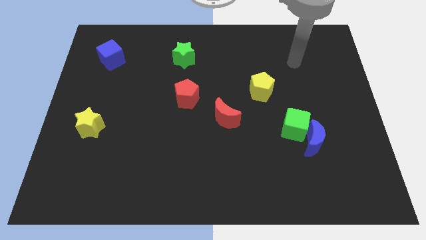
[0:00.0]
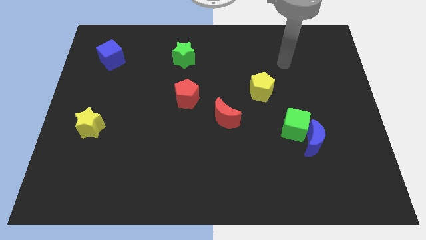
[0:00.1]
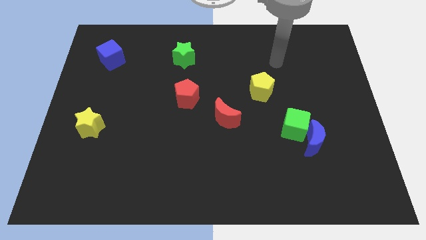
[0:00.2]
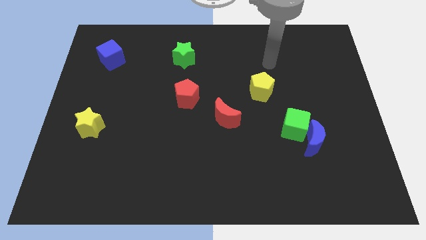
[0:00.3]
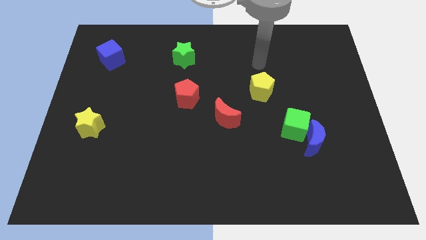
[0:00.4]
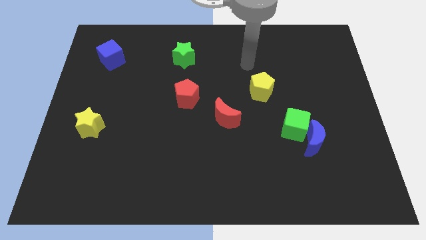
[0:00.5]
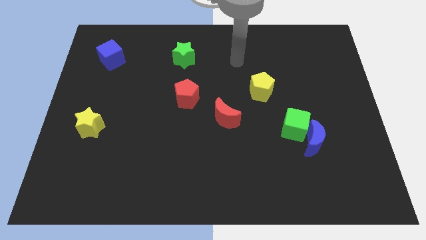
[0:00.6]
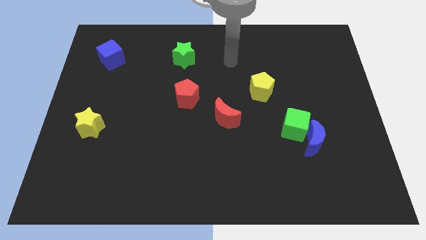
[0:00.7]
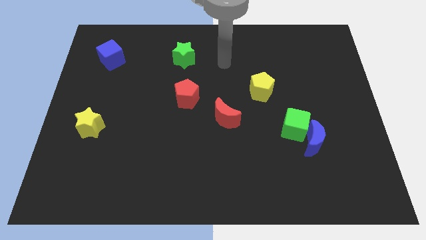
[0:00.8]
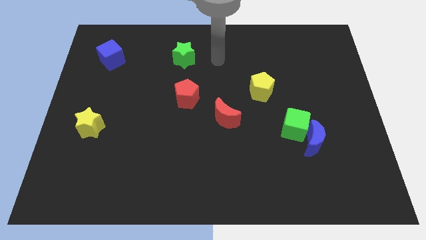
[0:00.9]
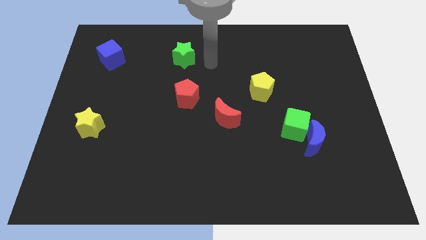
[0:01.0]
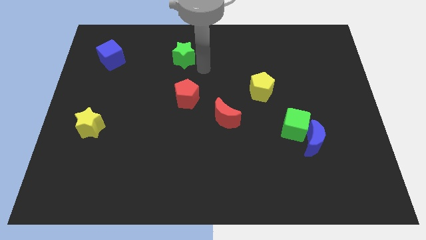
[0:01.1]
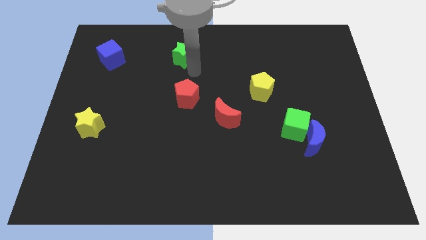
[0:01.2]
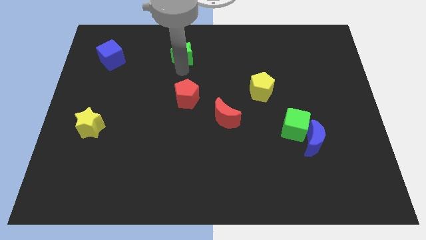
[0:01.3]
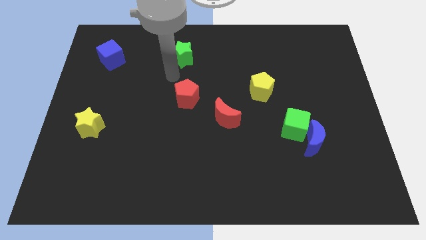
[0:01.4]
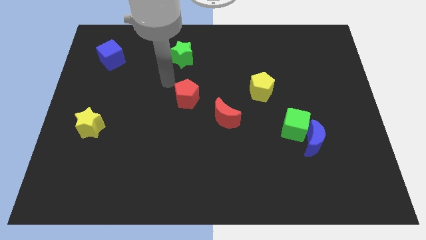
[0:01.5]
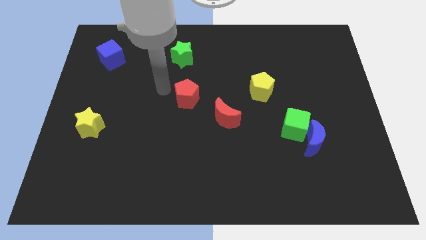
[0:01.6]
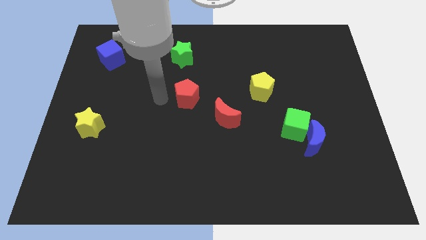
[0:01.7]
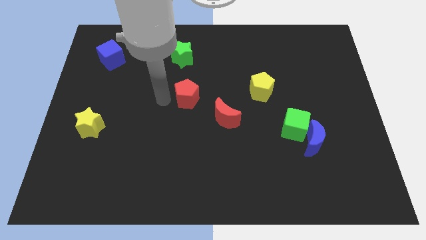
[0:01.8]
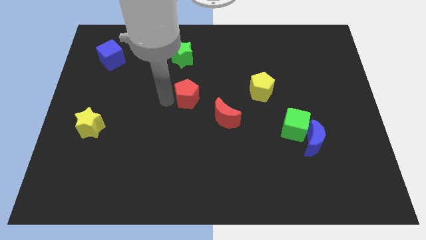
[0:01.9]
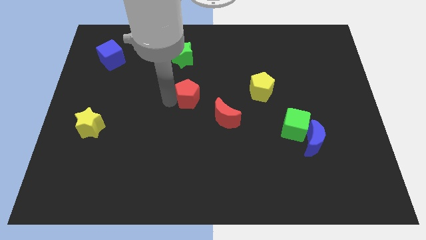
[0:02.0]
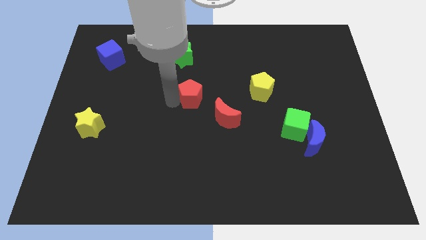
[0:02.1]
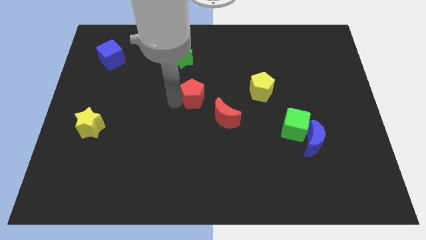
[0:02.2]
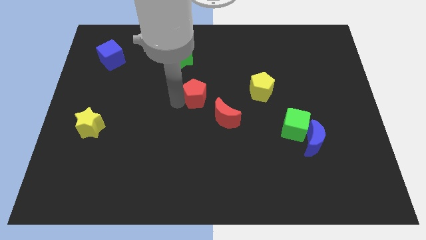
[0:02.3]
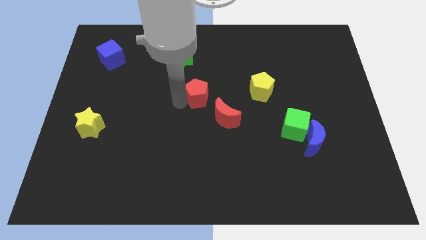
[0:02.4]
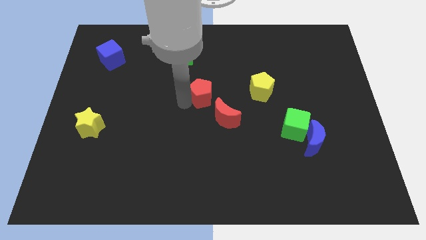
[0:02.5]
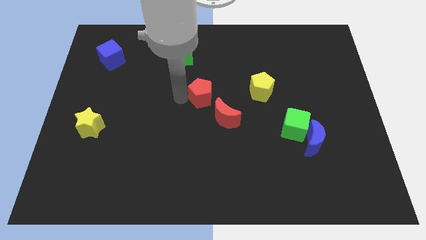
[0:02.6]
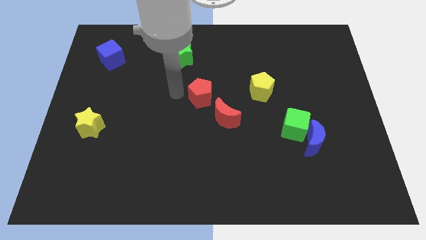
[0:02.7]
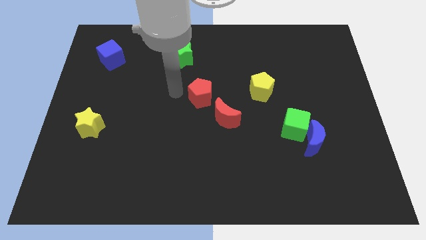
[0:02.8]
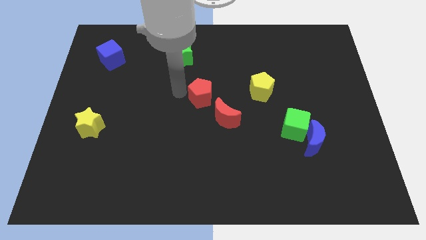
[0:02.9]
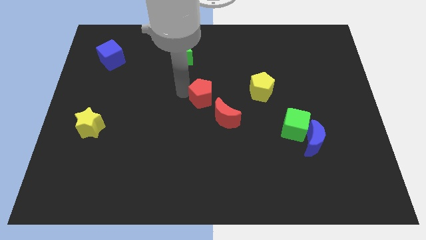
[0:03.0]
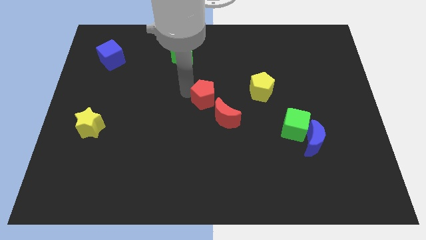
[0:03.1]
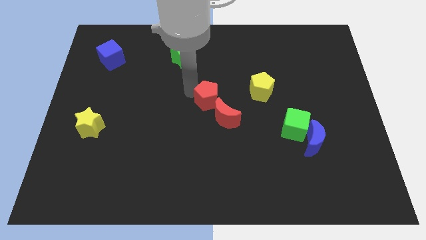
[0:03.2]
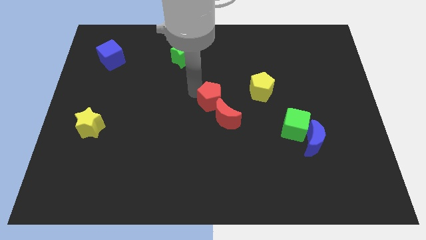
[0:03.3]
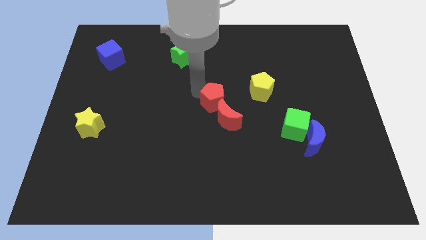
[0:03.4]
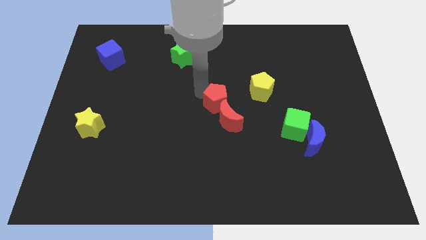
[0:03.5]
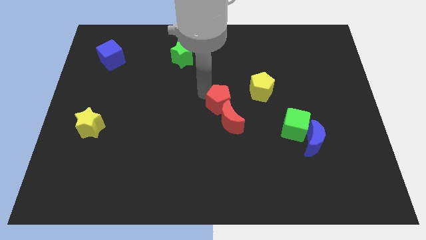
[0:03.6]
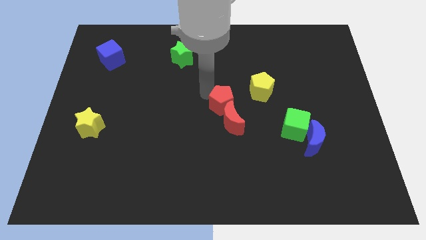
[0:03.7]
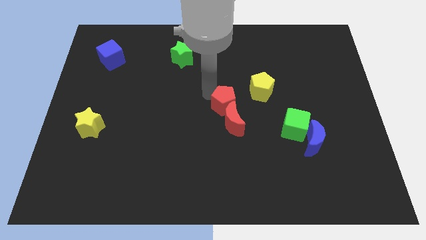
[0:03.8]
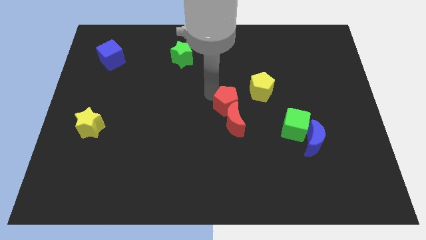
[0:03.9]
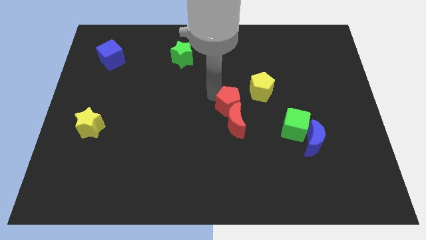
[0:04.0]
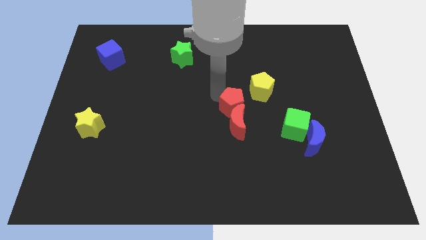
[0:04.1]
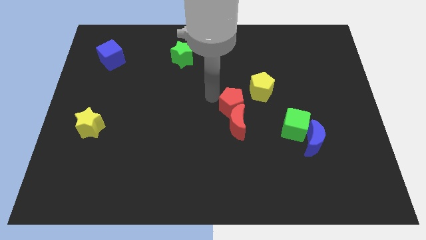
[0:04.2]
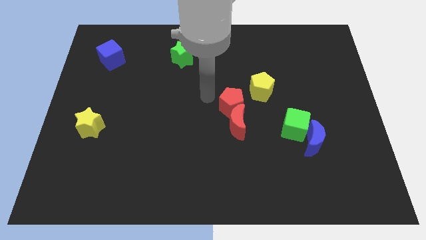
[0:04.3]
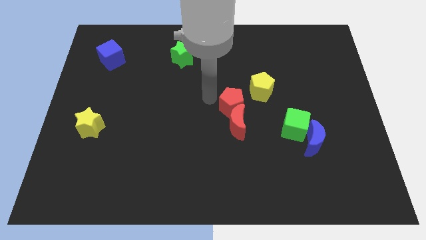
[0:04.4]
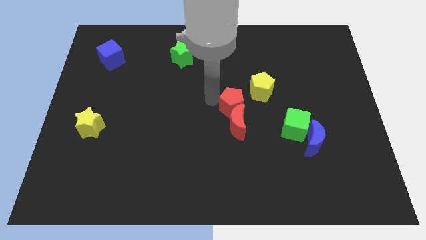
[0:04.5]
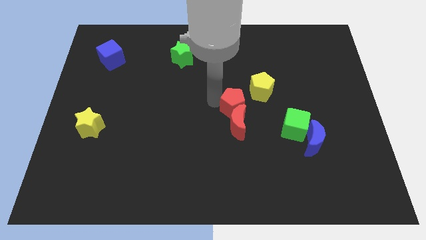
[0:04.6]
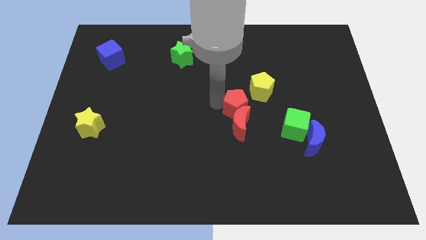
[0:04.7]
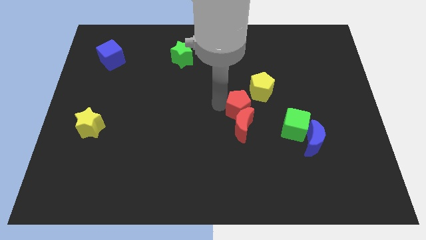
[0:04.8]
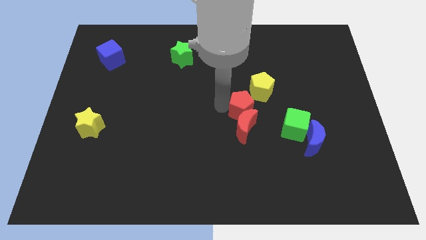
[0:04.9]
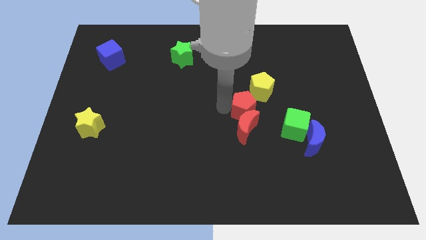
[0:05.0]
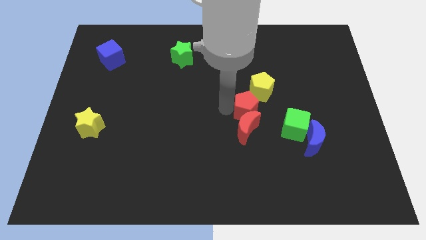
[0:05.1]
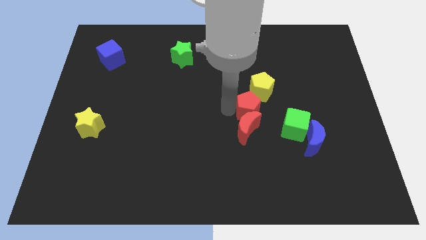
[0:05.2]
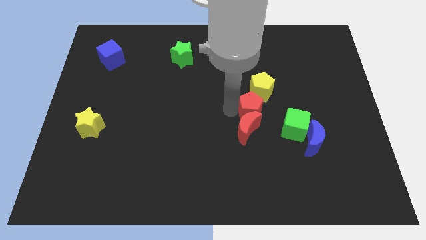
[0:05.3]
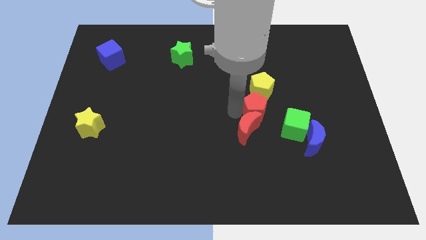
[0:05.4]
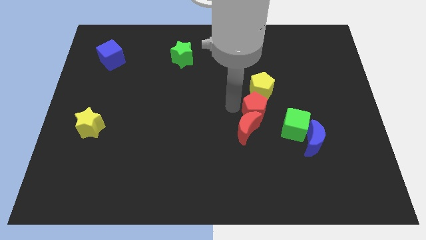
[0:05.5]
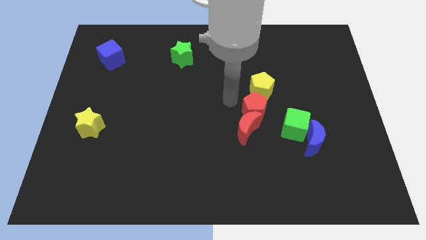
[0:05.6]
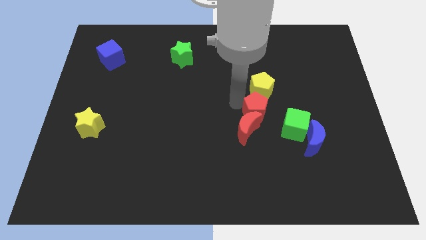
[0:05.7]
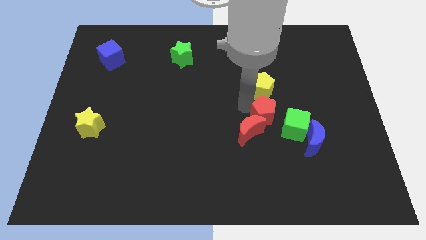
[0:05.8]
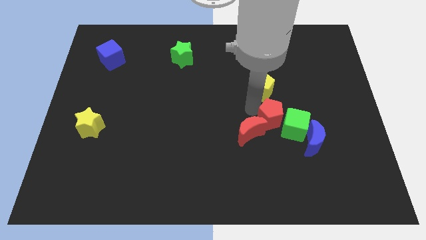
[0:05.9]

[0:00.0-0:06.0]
move the red pentagon towards the green cube
